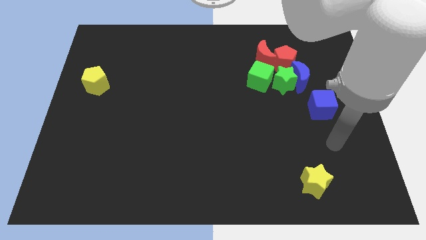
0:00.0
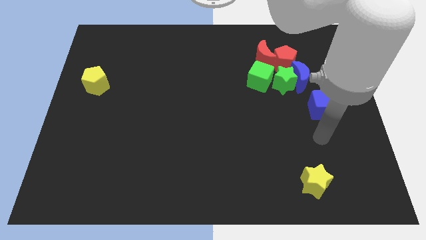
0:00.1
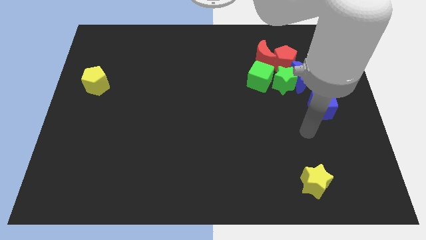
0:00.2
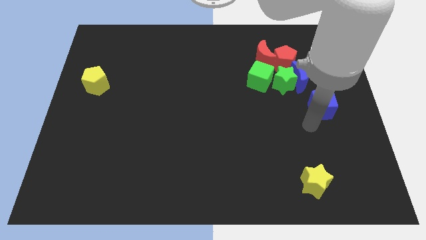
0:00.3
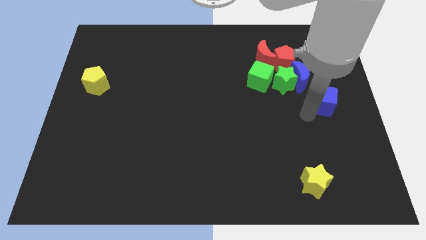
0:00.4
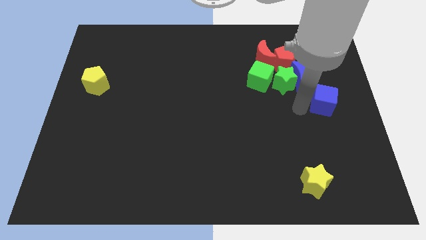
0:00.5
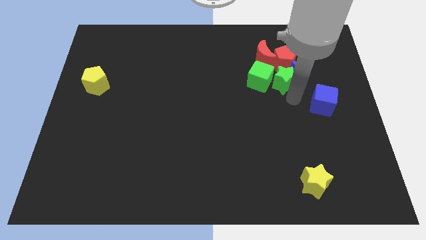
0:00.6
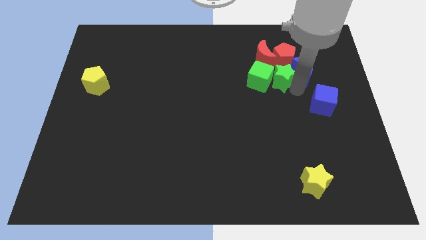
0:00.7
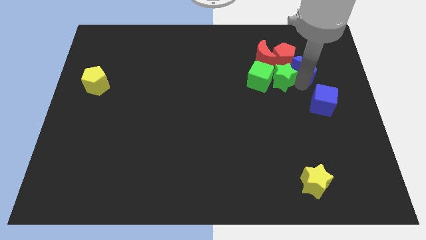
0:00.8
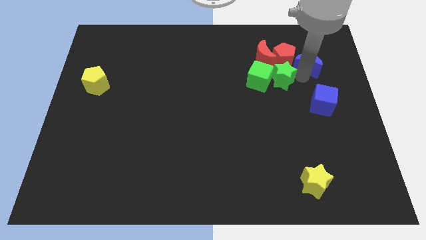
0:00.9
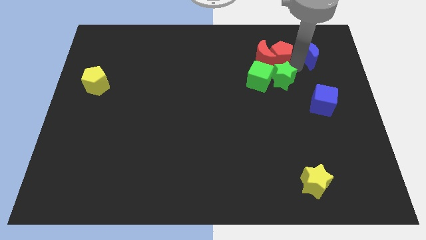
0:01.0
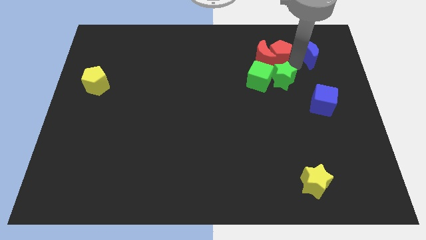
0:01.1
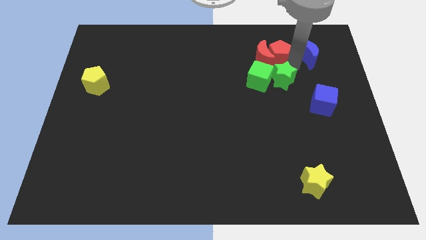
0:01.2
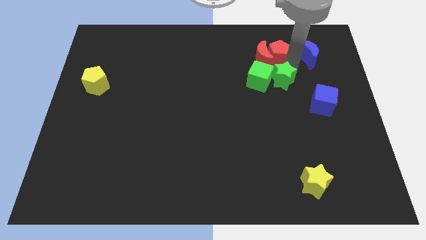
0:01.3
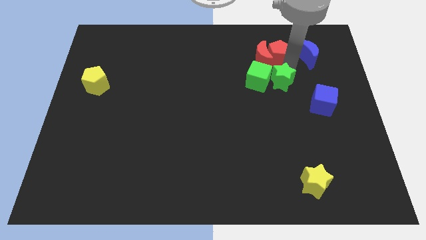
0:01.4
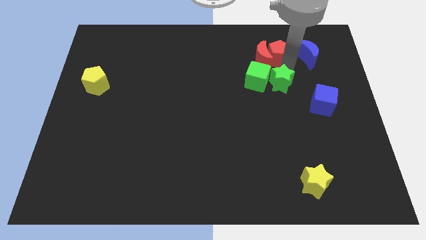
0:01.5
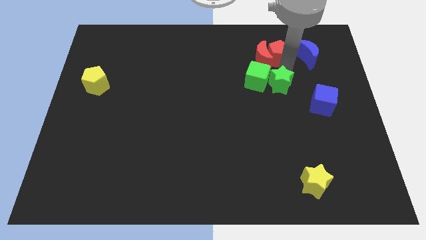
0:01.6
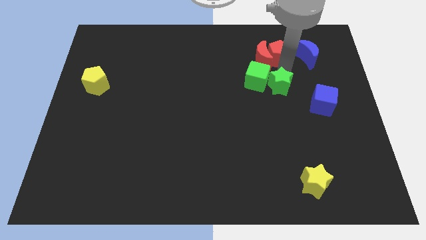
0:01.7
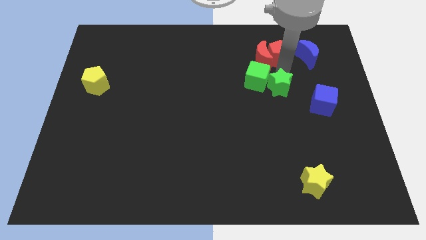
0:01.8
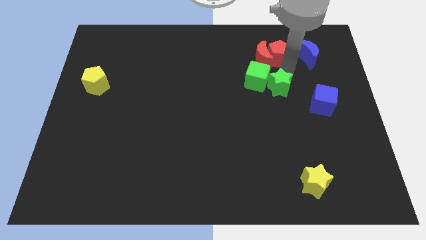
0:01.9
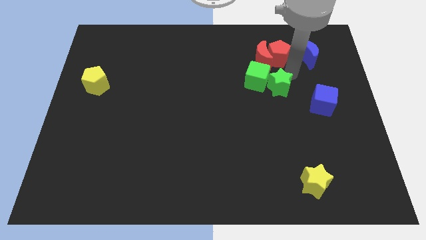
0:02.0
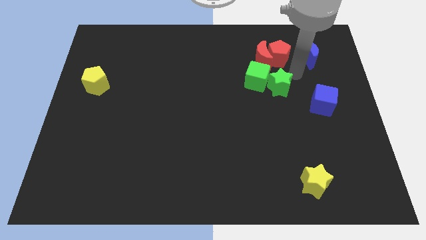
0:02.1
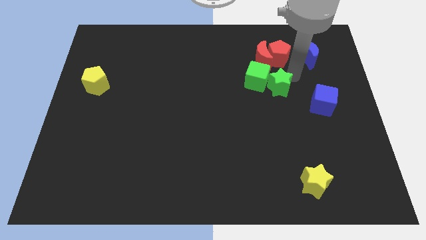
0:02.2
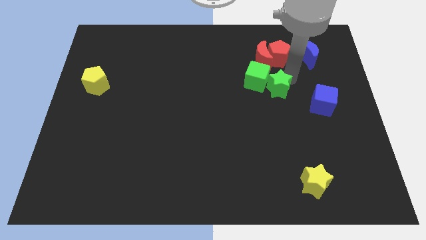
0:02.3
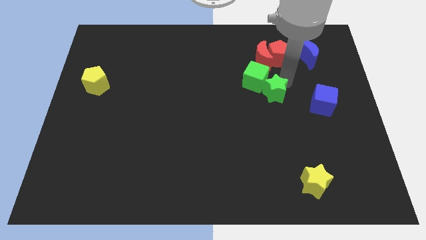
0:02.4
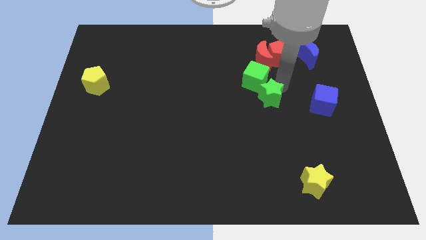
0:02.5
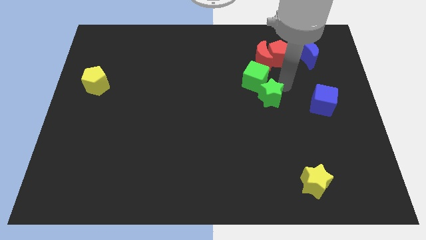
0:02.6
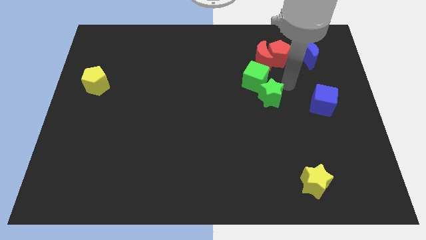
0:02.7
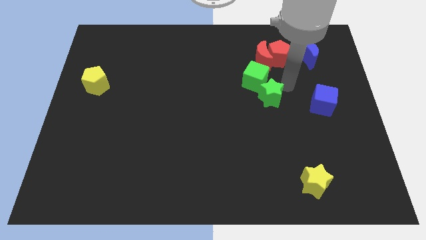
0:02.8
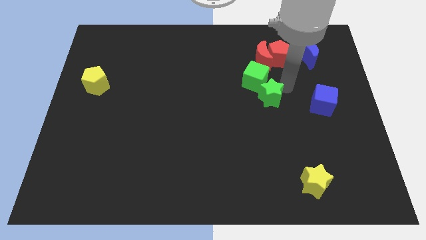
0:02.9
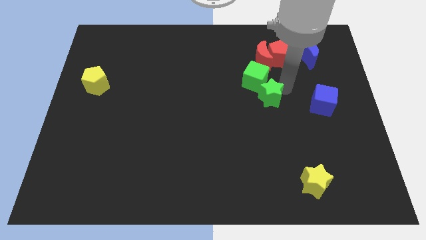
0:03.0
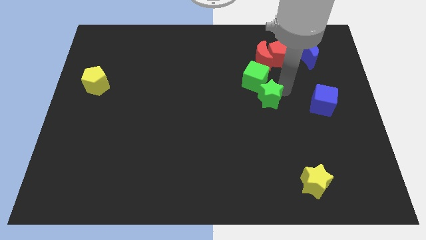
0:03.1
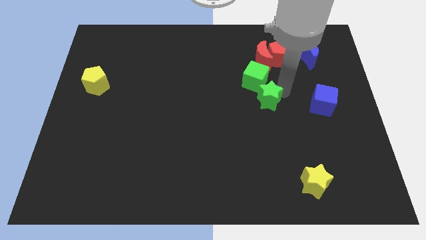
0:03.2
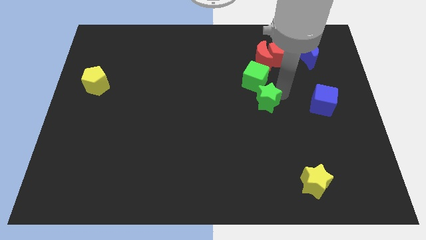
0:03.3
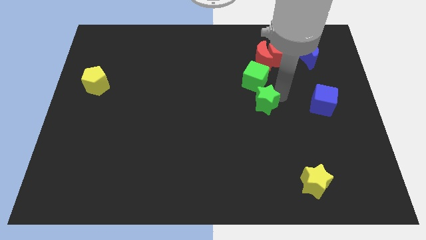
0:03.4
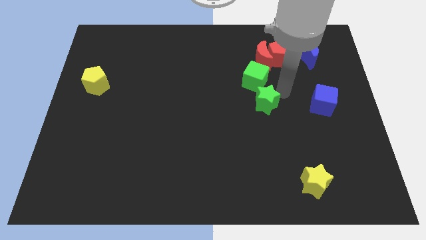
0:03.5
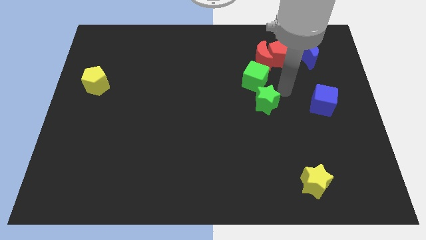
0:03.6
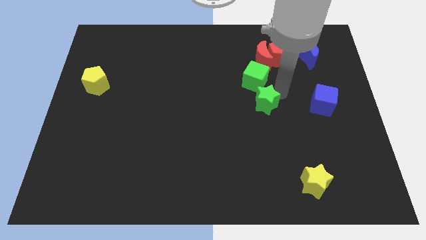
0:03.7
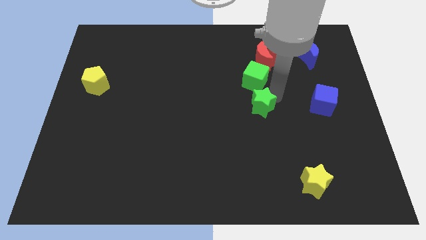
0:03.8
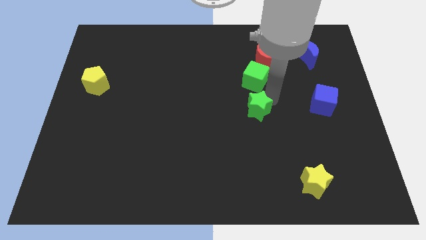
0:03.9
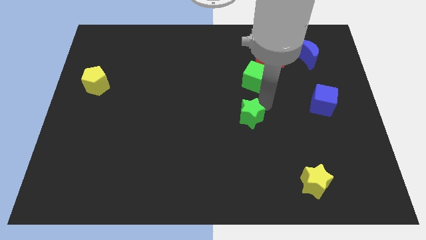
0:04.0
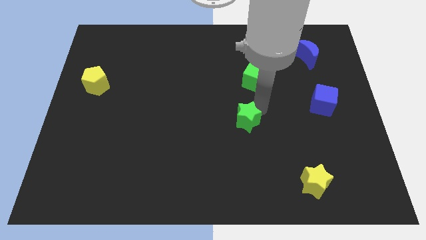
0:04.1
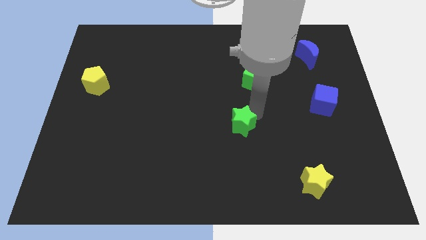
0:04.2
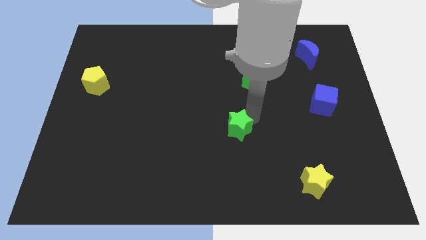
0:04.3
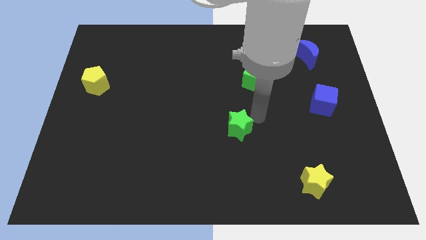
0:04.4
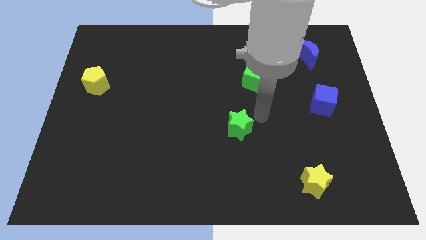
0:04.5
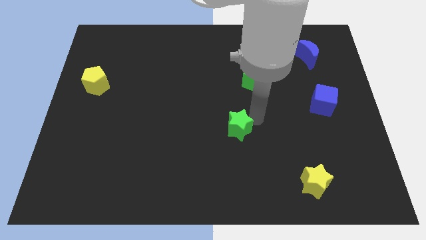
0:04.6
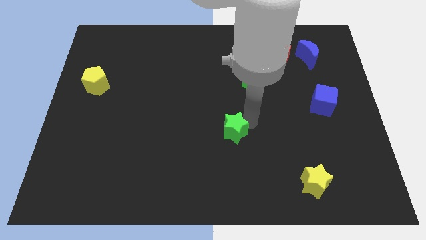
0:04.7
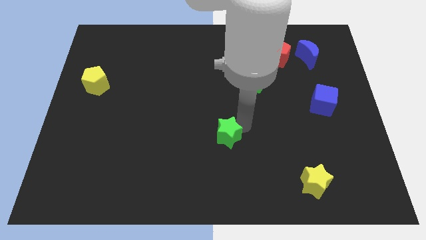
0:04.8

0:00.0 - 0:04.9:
slide the green star diagonally down and left

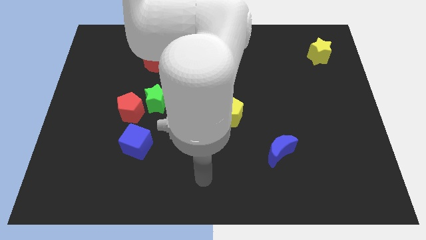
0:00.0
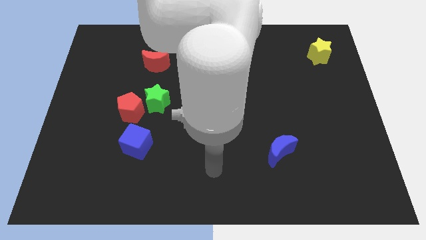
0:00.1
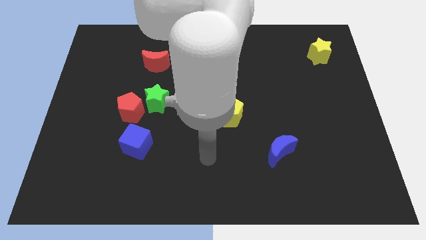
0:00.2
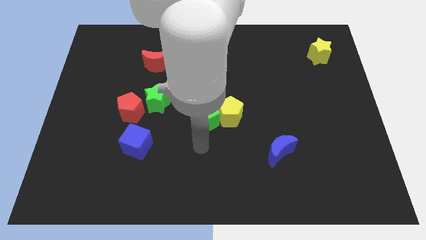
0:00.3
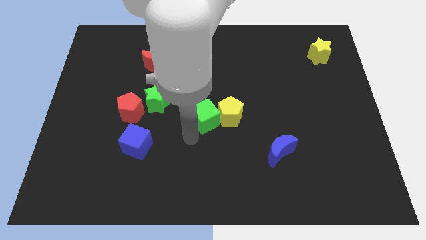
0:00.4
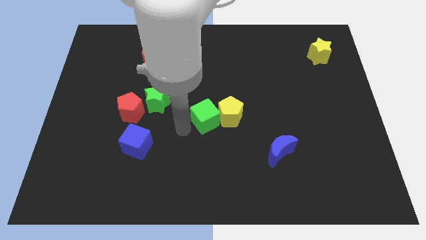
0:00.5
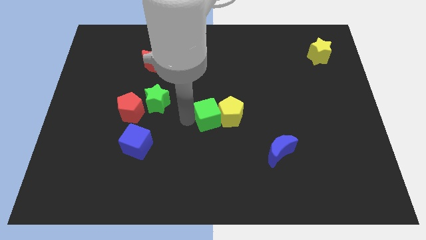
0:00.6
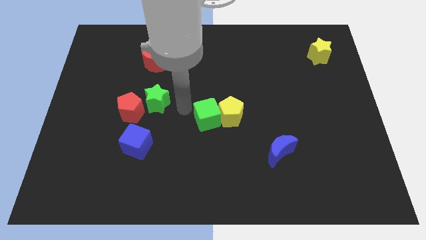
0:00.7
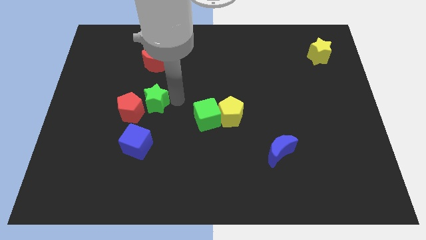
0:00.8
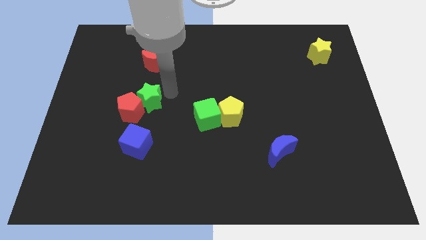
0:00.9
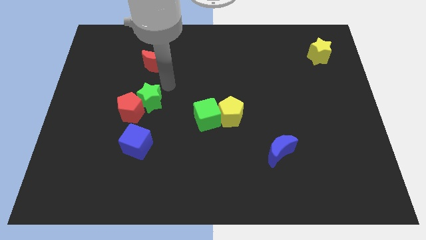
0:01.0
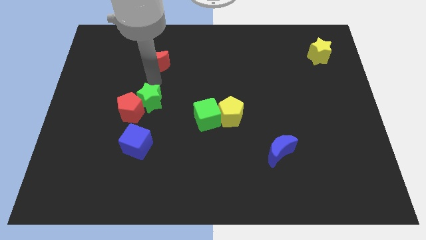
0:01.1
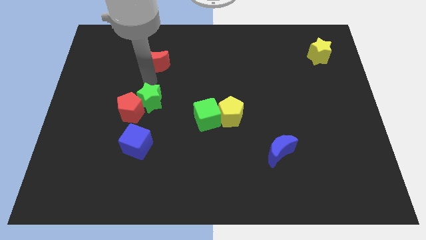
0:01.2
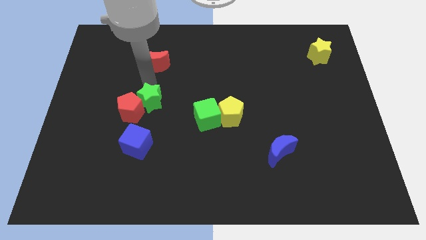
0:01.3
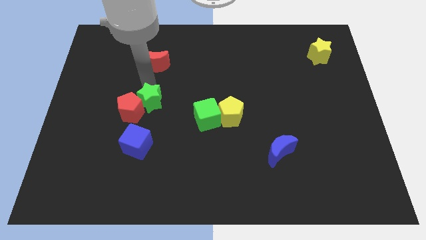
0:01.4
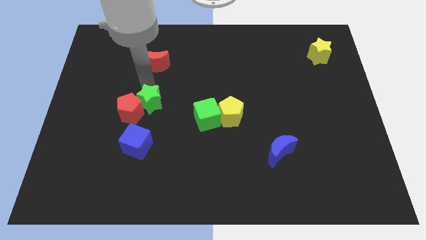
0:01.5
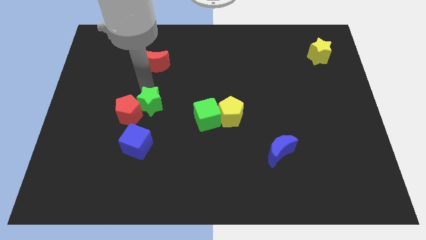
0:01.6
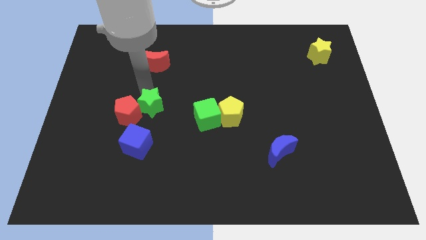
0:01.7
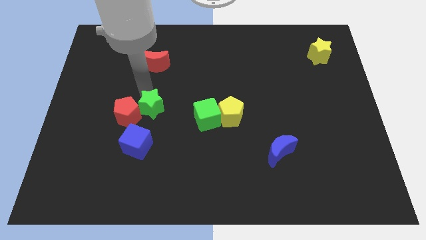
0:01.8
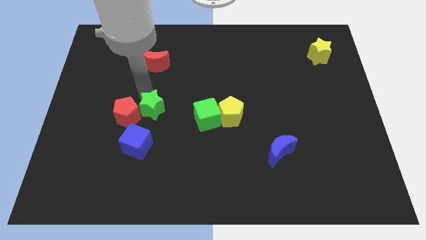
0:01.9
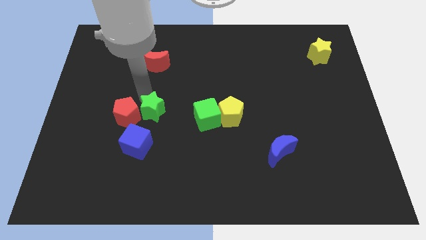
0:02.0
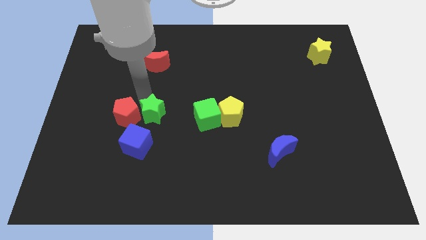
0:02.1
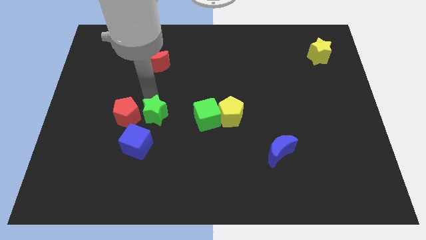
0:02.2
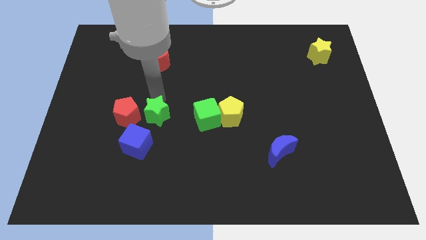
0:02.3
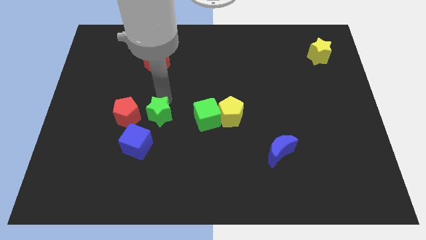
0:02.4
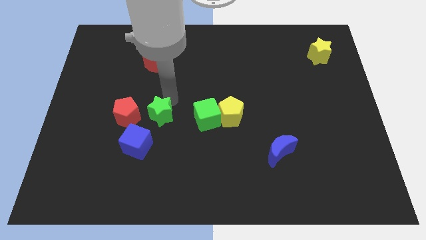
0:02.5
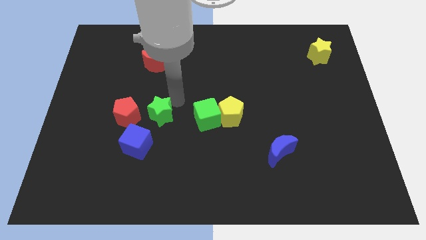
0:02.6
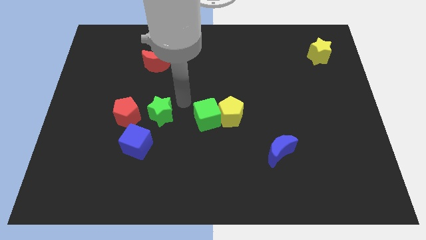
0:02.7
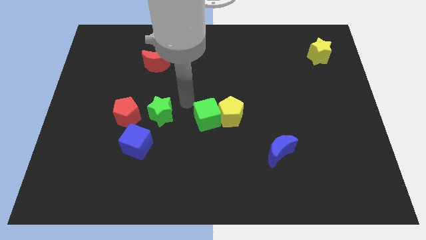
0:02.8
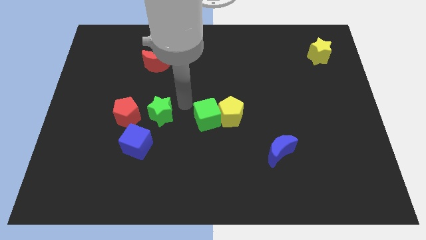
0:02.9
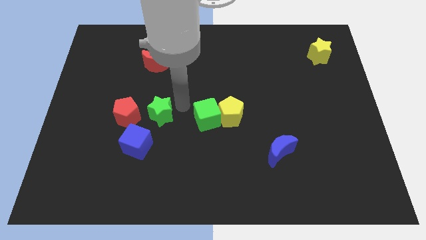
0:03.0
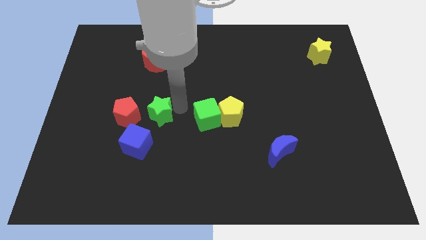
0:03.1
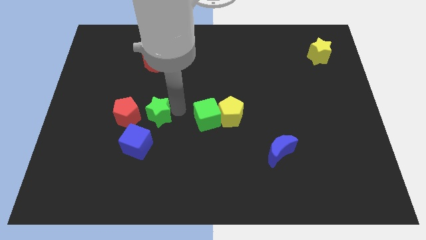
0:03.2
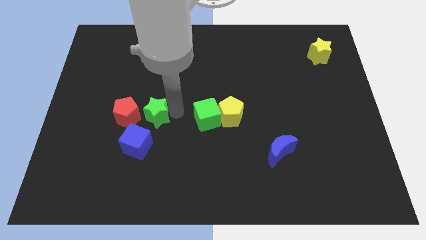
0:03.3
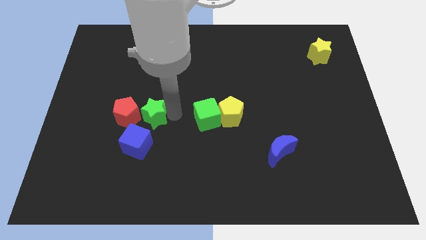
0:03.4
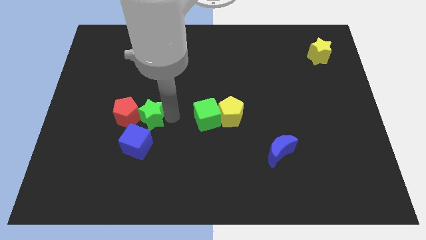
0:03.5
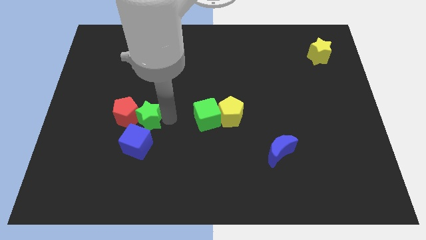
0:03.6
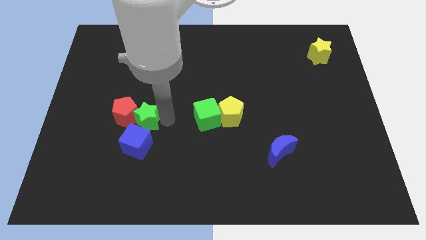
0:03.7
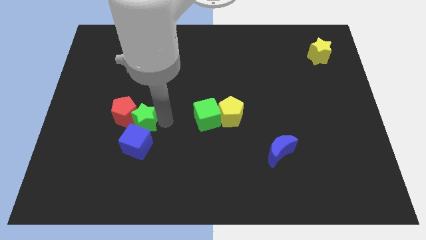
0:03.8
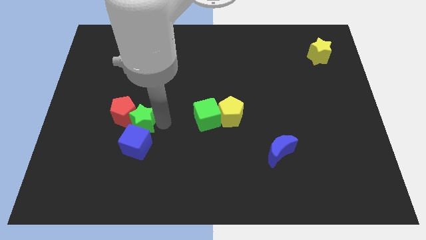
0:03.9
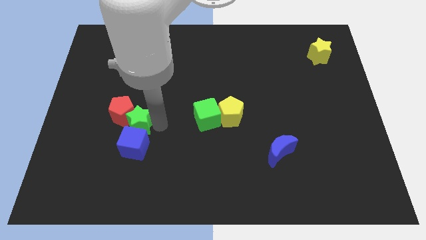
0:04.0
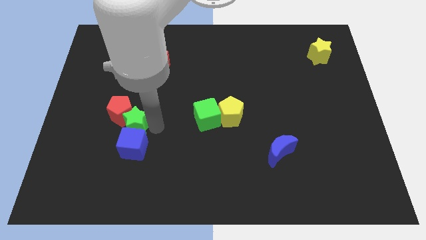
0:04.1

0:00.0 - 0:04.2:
slide the green star down and to the left diagonally a bit
